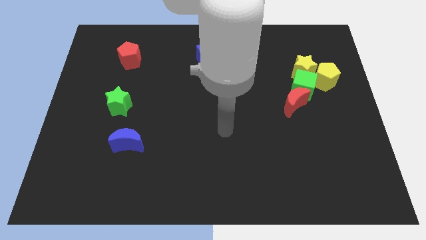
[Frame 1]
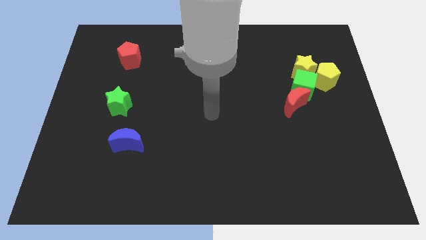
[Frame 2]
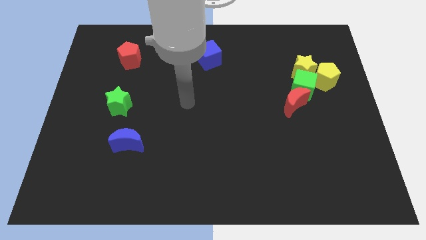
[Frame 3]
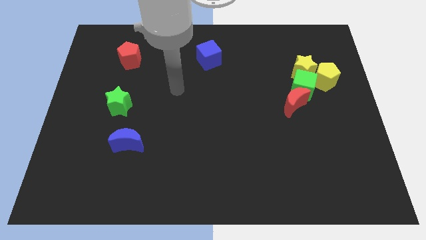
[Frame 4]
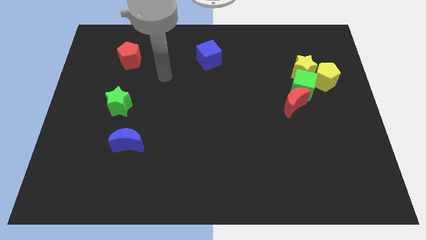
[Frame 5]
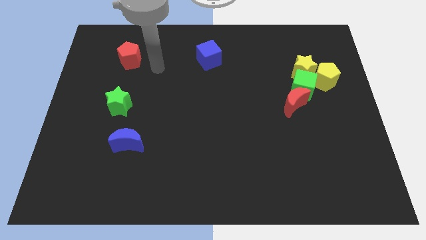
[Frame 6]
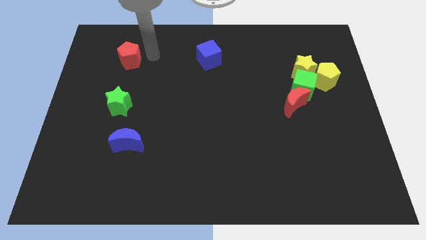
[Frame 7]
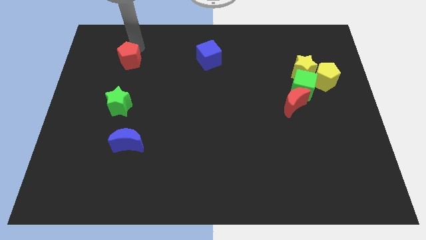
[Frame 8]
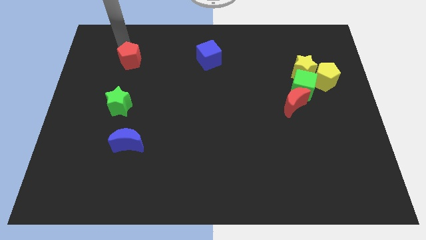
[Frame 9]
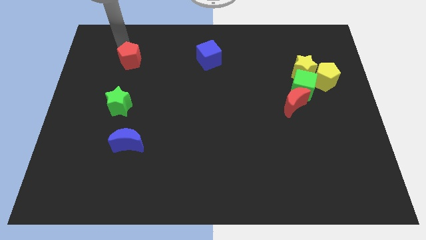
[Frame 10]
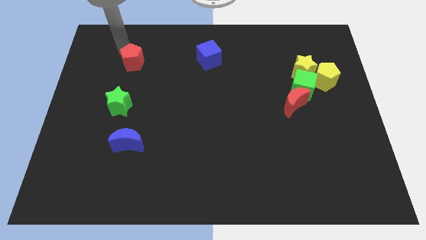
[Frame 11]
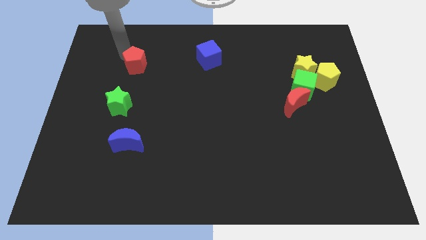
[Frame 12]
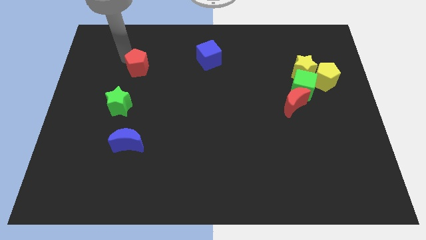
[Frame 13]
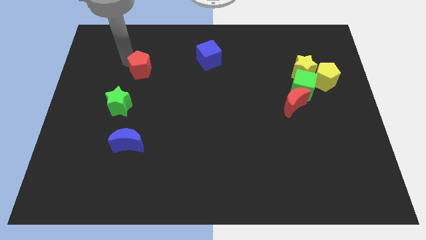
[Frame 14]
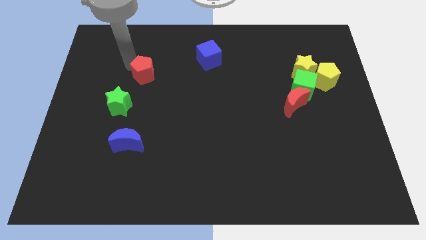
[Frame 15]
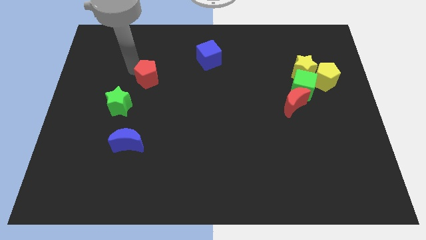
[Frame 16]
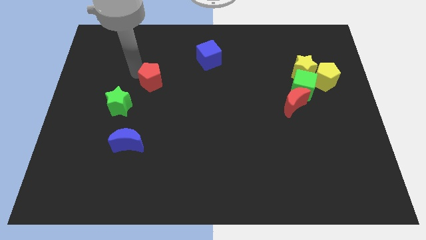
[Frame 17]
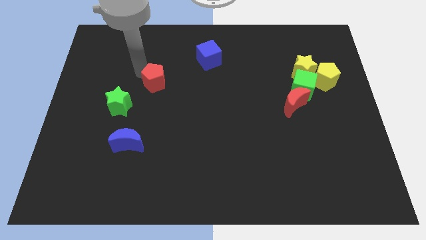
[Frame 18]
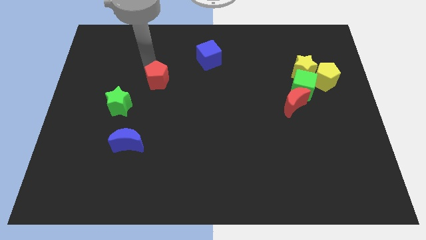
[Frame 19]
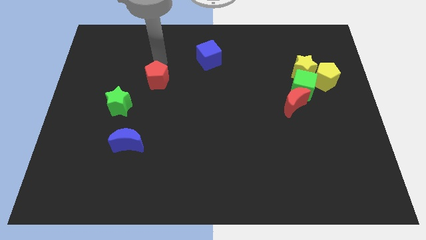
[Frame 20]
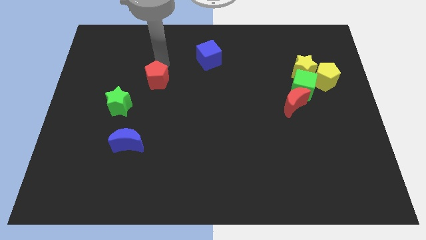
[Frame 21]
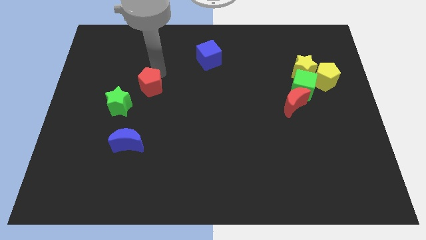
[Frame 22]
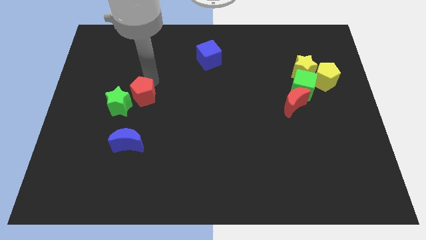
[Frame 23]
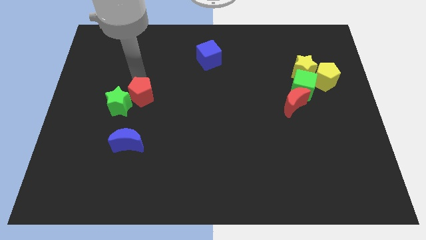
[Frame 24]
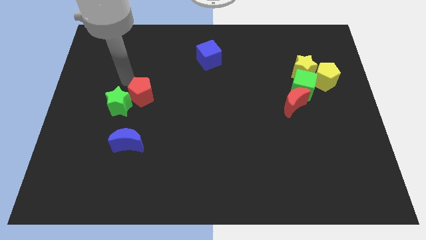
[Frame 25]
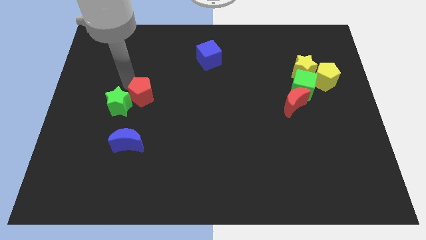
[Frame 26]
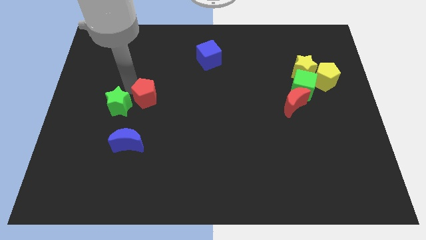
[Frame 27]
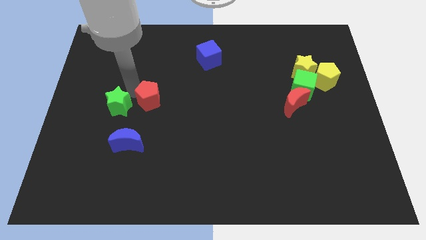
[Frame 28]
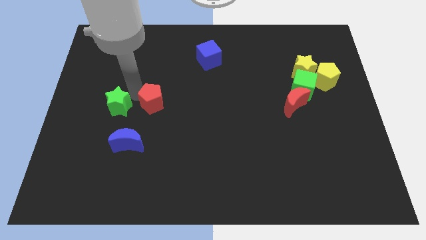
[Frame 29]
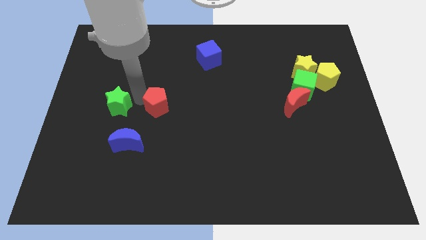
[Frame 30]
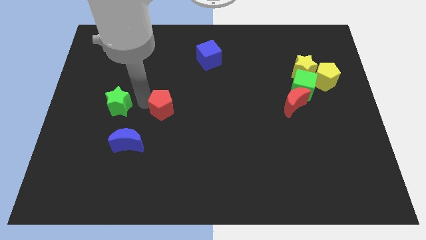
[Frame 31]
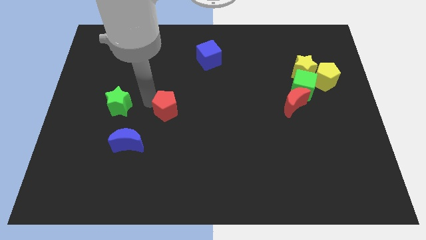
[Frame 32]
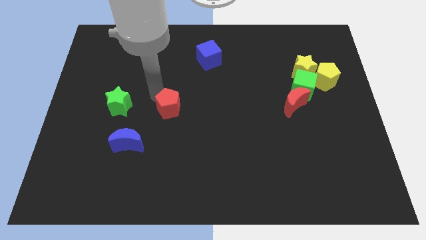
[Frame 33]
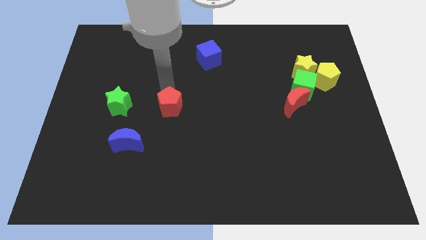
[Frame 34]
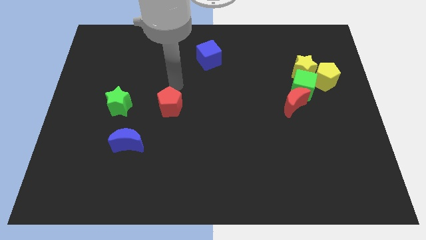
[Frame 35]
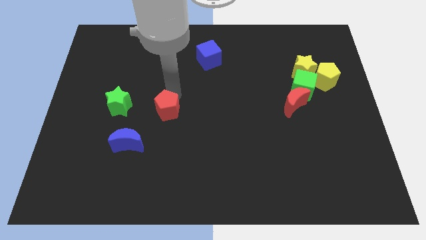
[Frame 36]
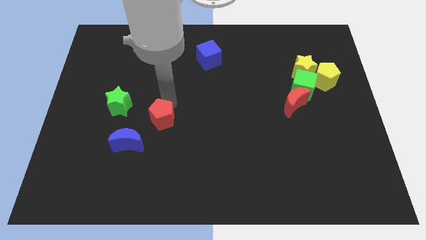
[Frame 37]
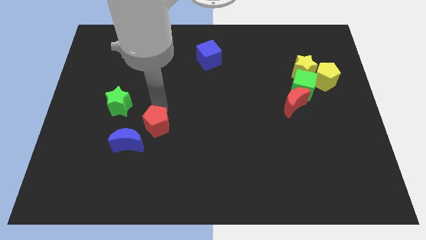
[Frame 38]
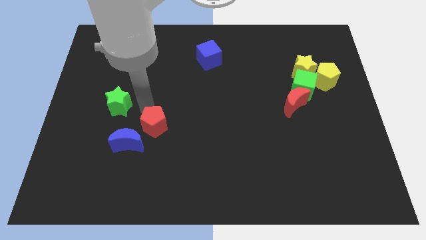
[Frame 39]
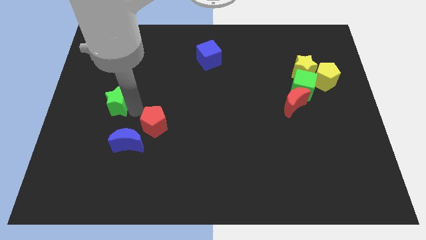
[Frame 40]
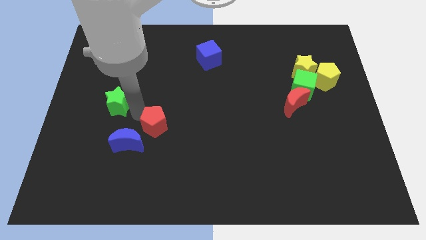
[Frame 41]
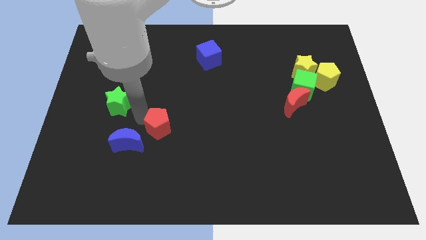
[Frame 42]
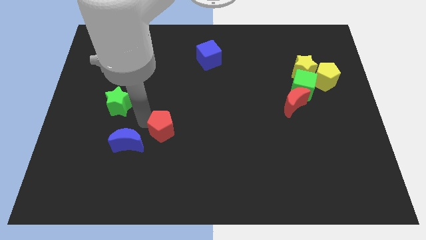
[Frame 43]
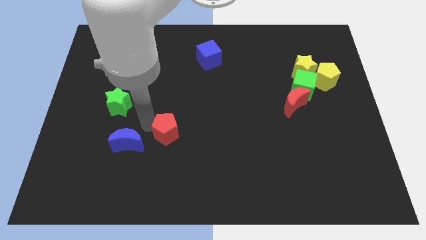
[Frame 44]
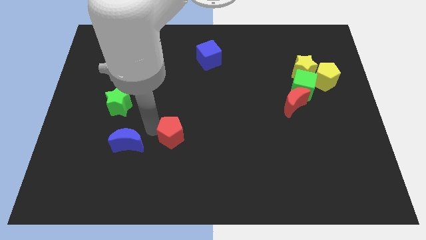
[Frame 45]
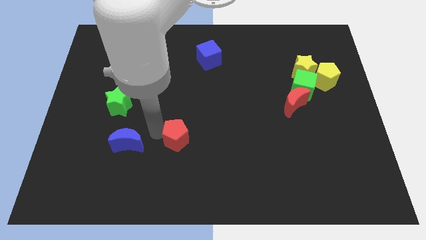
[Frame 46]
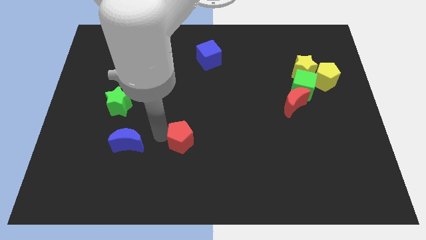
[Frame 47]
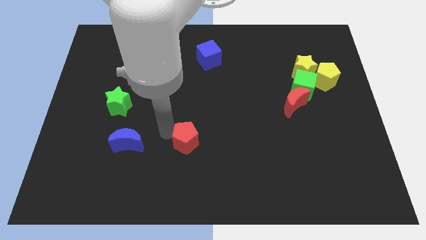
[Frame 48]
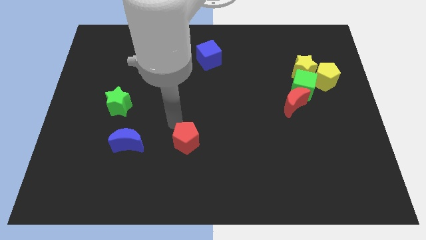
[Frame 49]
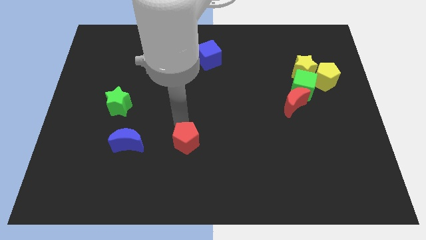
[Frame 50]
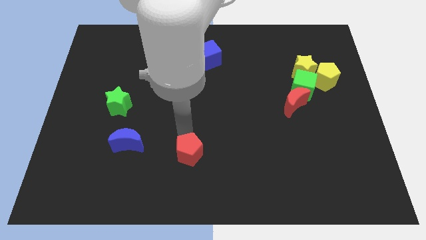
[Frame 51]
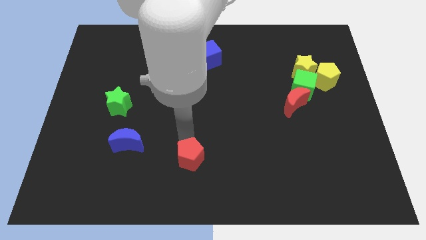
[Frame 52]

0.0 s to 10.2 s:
move the red pentagon to the bottom

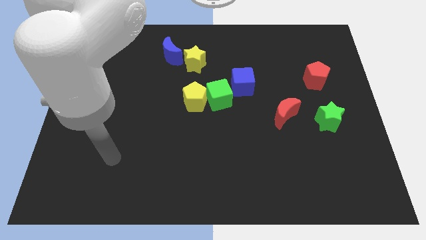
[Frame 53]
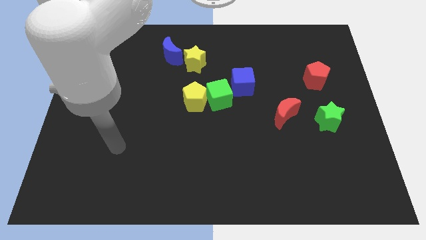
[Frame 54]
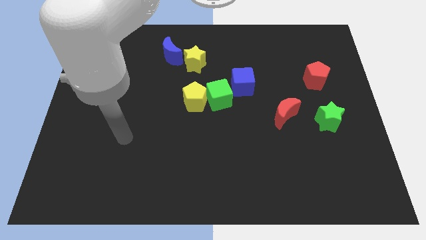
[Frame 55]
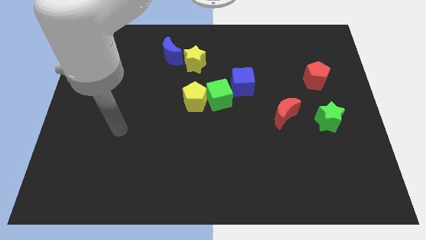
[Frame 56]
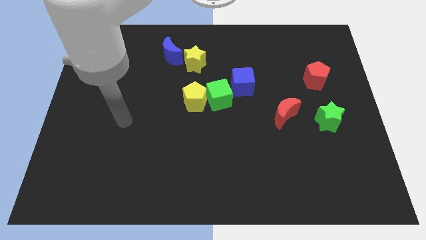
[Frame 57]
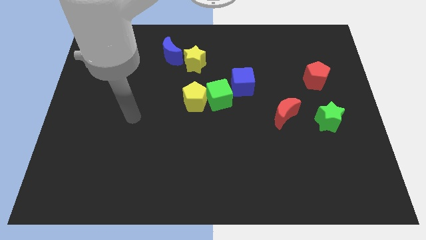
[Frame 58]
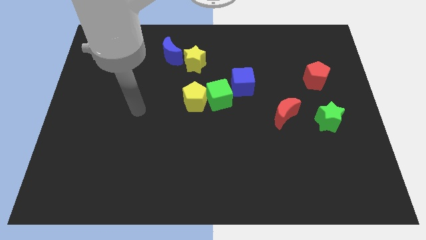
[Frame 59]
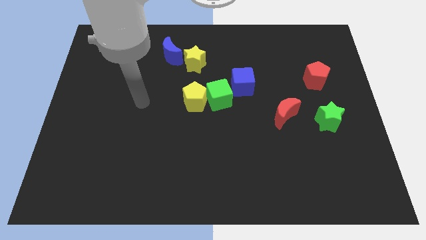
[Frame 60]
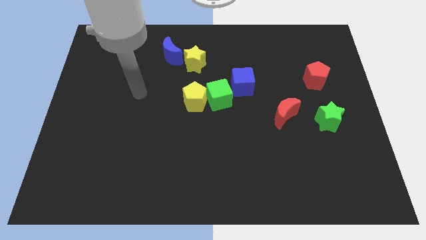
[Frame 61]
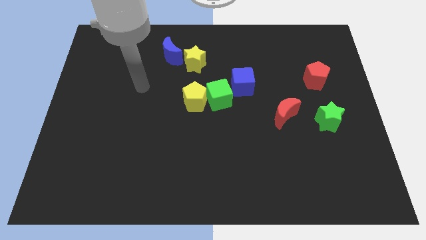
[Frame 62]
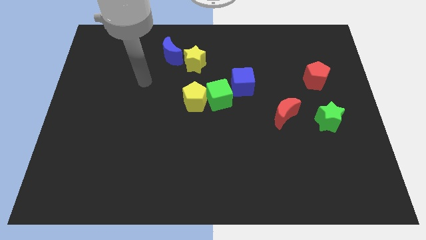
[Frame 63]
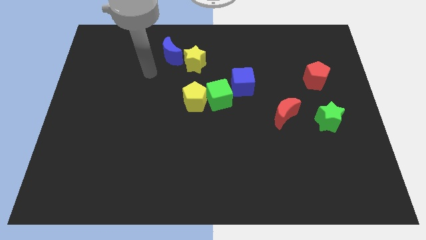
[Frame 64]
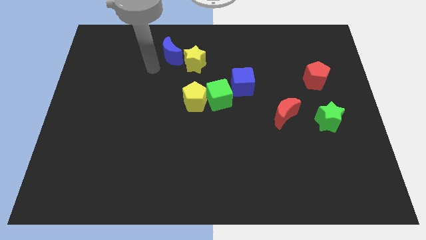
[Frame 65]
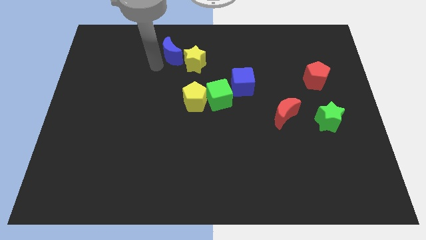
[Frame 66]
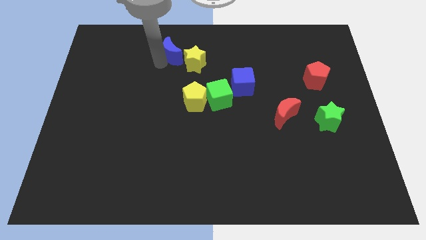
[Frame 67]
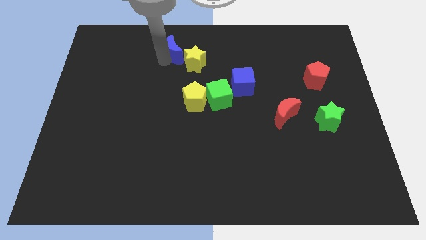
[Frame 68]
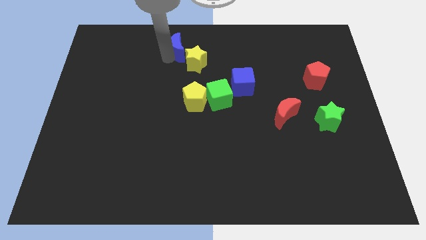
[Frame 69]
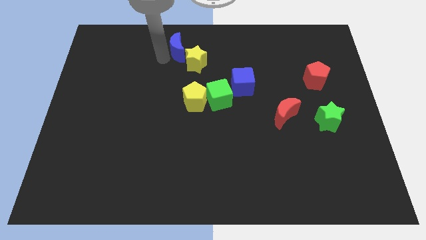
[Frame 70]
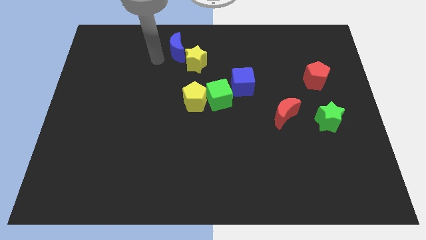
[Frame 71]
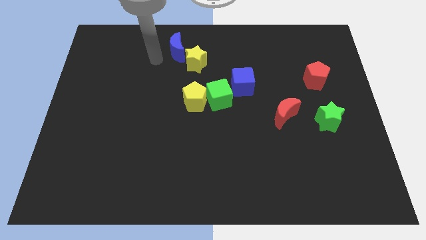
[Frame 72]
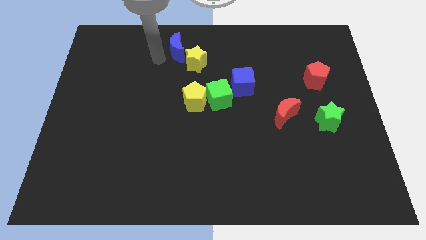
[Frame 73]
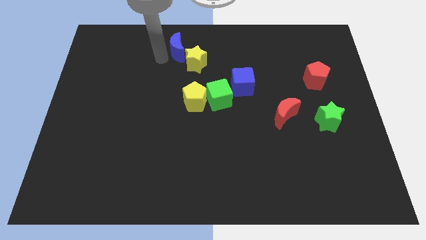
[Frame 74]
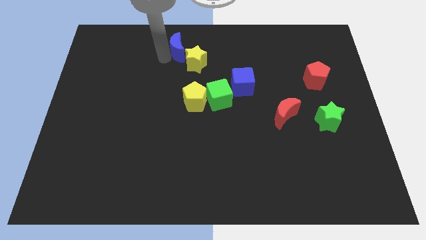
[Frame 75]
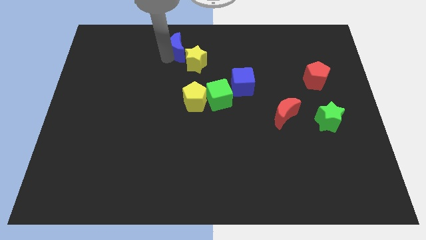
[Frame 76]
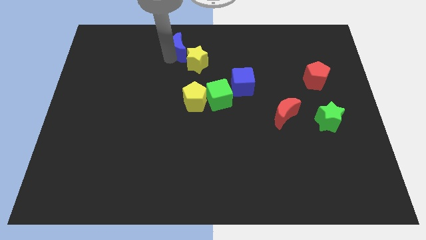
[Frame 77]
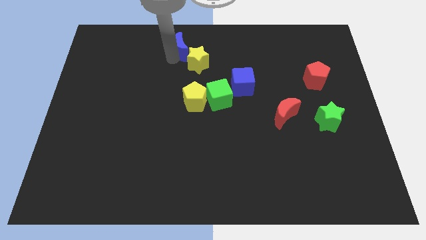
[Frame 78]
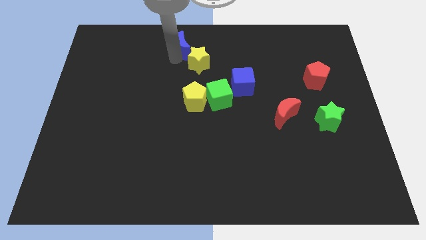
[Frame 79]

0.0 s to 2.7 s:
put the blue moon to the top
